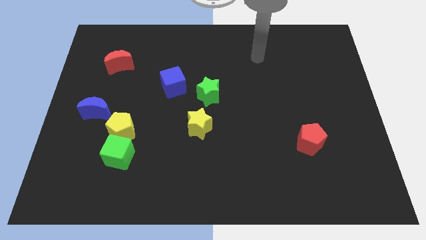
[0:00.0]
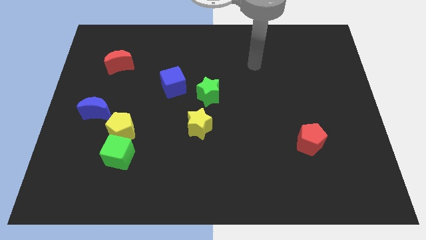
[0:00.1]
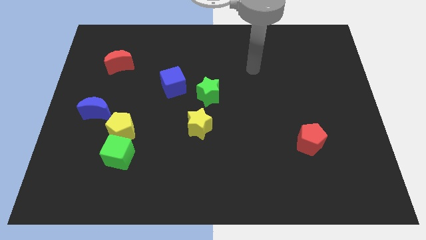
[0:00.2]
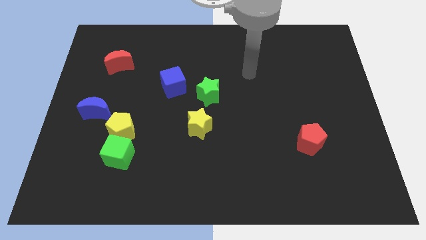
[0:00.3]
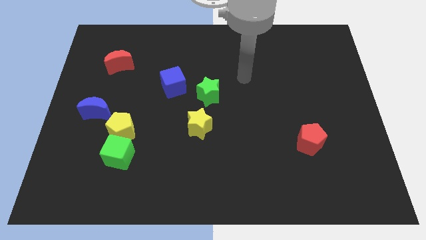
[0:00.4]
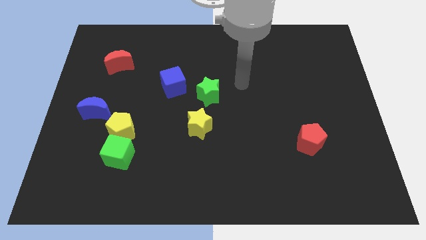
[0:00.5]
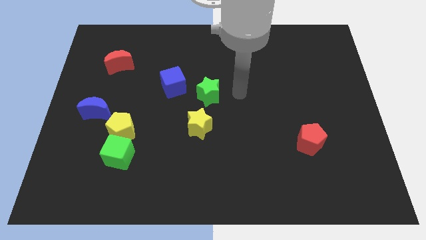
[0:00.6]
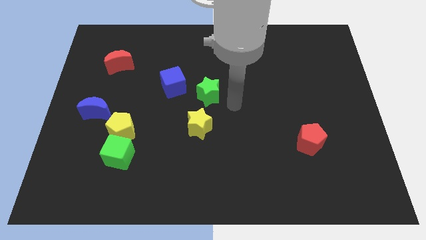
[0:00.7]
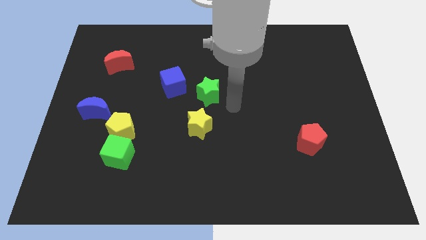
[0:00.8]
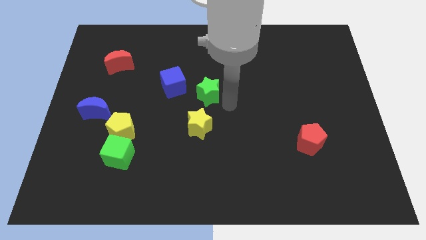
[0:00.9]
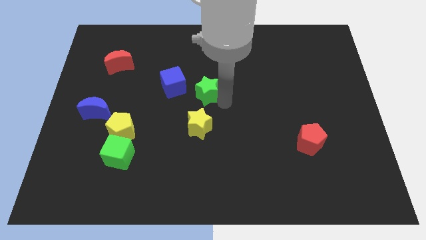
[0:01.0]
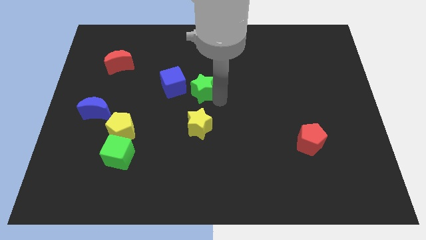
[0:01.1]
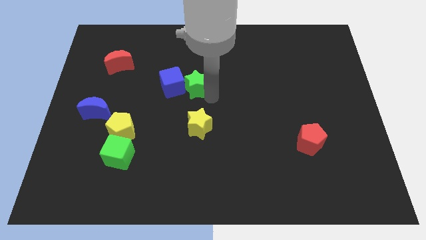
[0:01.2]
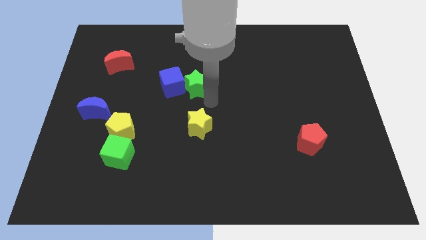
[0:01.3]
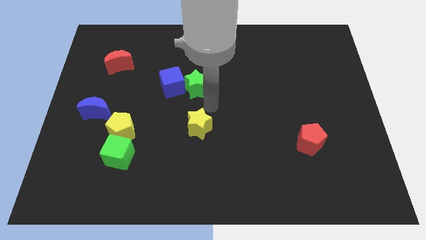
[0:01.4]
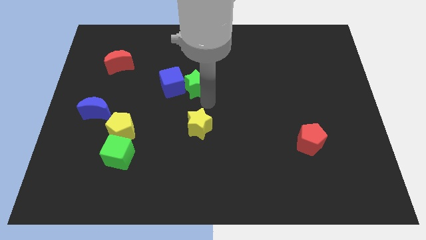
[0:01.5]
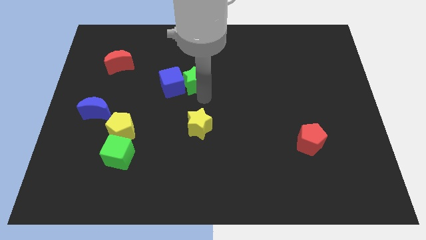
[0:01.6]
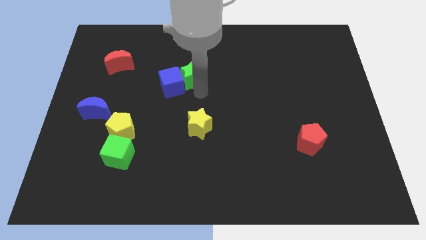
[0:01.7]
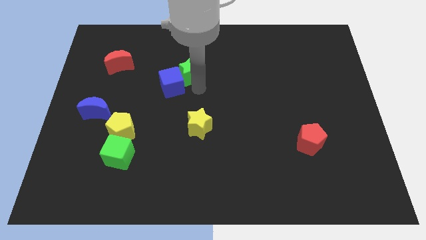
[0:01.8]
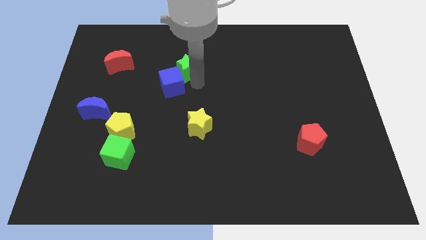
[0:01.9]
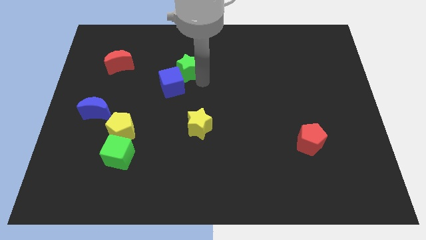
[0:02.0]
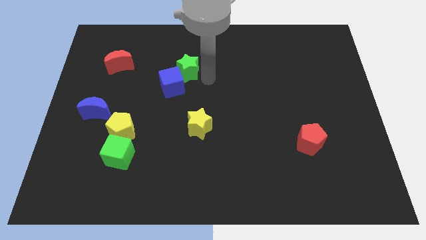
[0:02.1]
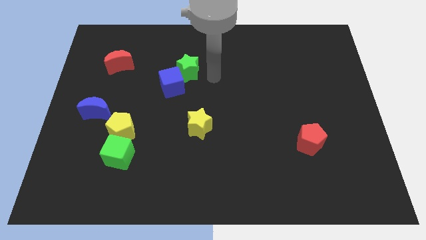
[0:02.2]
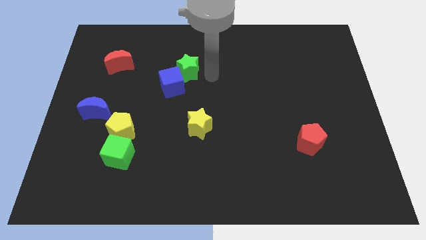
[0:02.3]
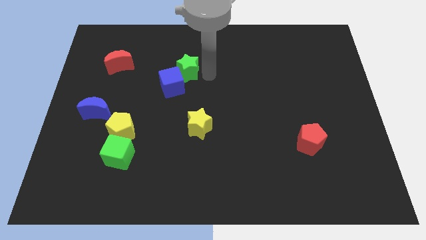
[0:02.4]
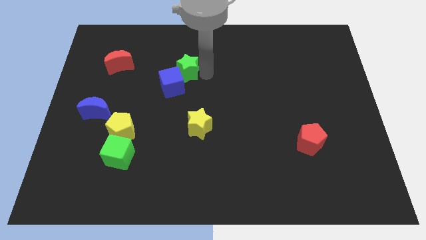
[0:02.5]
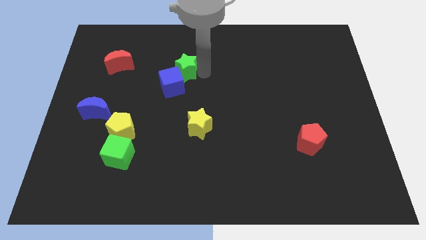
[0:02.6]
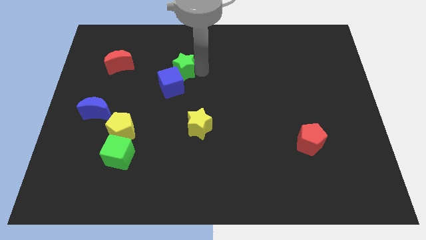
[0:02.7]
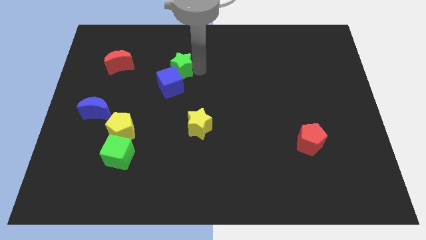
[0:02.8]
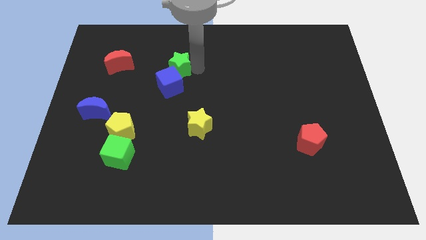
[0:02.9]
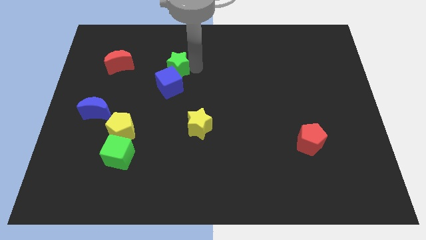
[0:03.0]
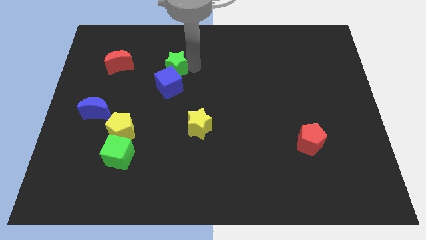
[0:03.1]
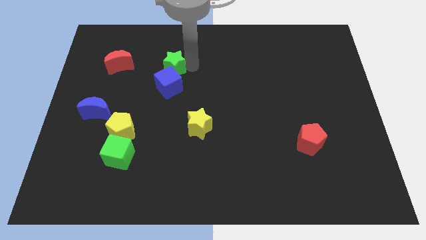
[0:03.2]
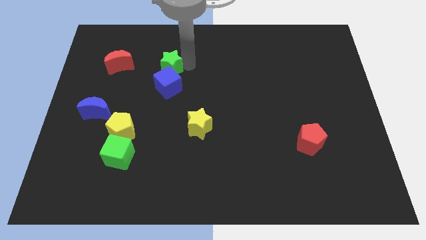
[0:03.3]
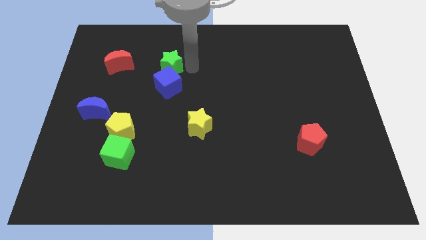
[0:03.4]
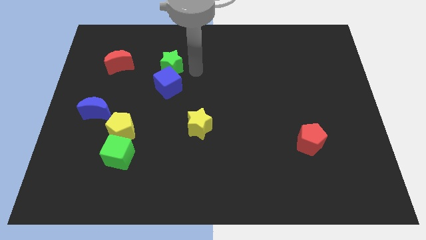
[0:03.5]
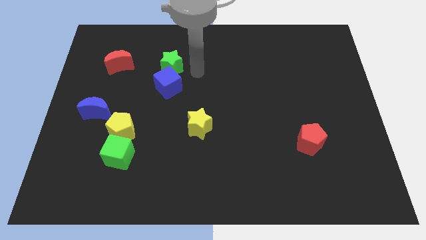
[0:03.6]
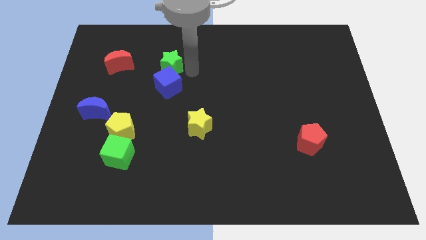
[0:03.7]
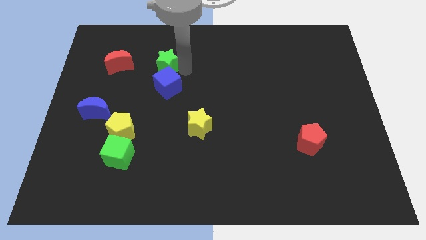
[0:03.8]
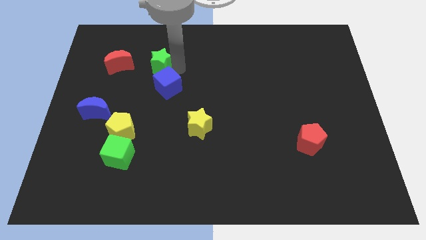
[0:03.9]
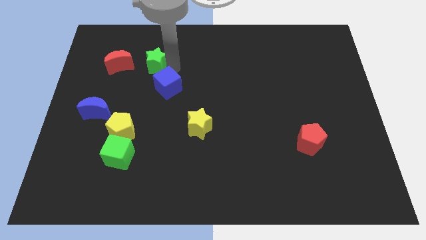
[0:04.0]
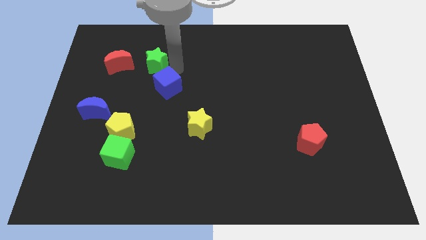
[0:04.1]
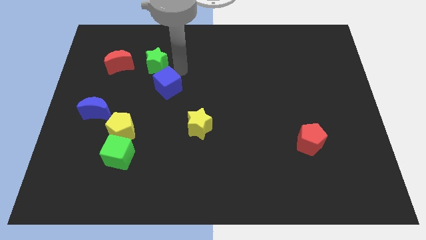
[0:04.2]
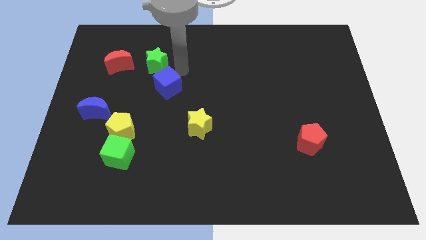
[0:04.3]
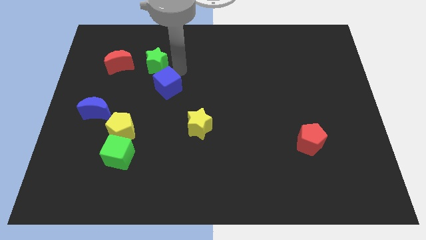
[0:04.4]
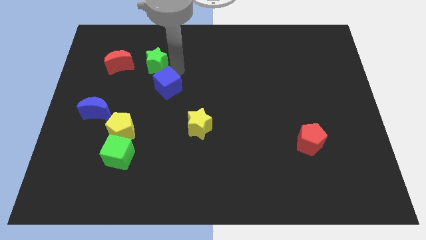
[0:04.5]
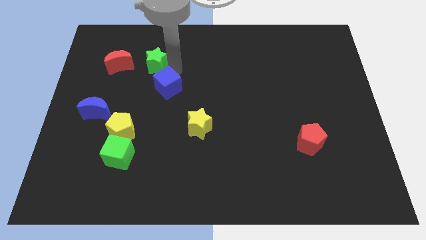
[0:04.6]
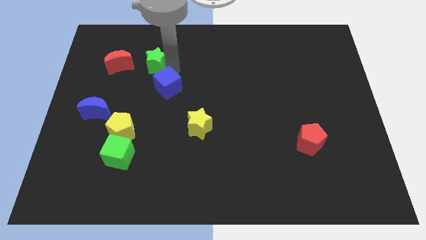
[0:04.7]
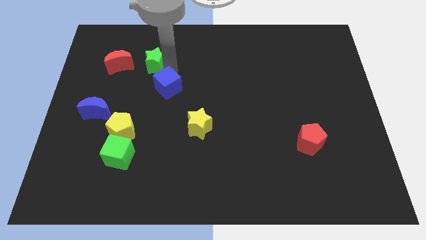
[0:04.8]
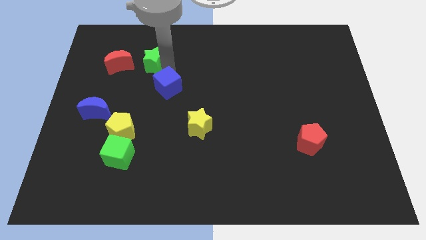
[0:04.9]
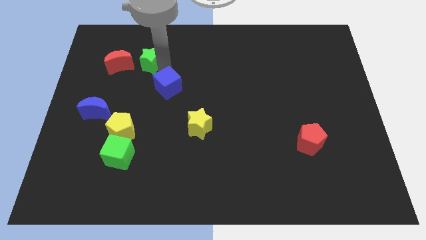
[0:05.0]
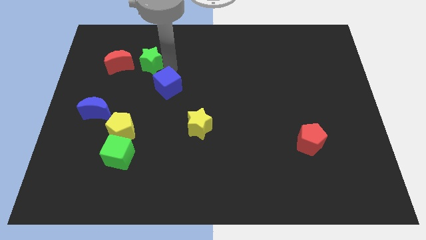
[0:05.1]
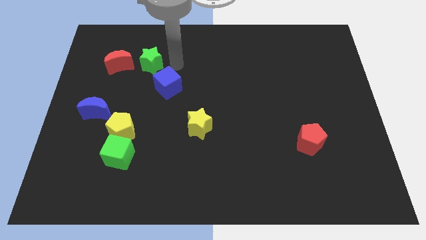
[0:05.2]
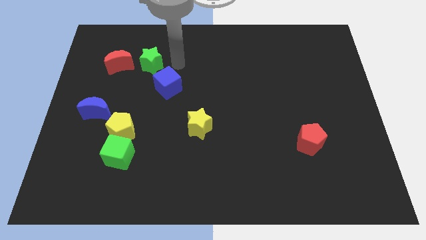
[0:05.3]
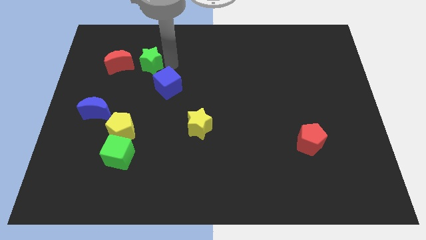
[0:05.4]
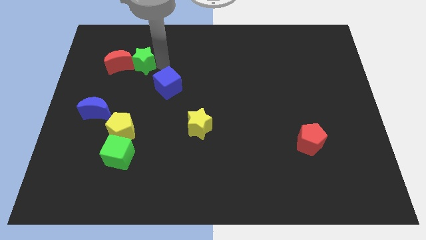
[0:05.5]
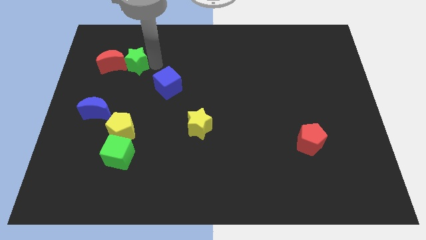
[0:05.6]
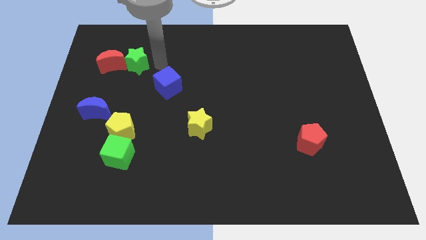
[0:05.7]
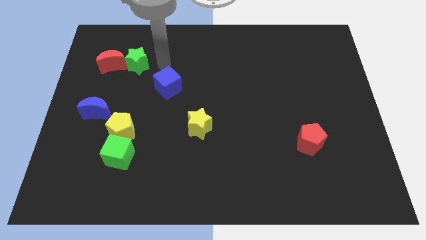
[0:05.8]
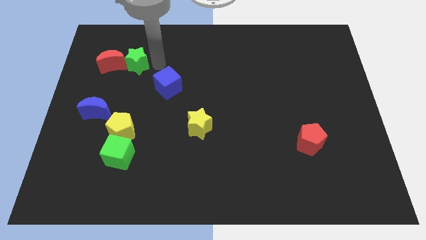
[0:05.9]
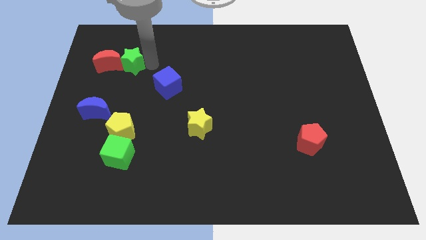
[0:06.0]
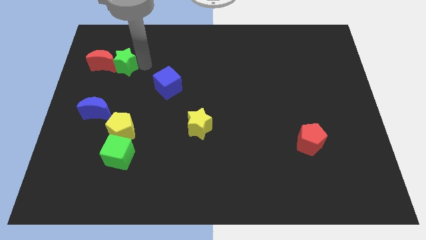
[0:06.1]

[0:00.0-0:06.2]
slide the green star next to the red moon

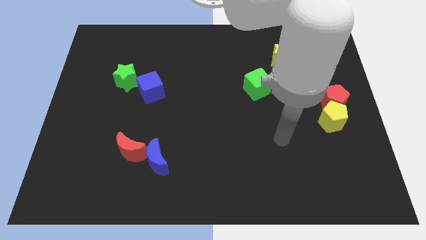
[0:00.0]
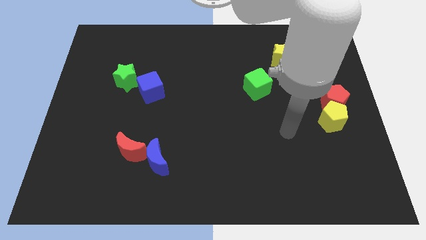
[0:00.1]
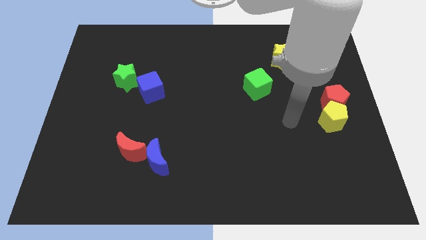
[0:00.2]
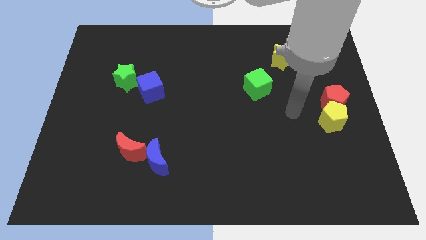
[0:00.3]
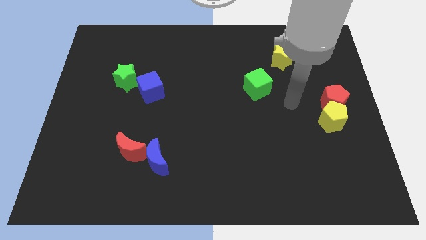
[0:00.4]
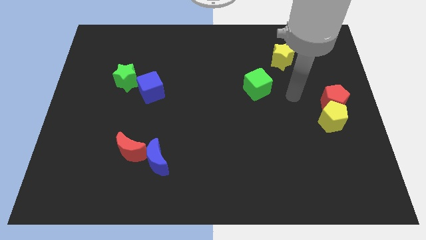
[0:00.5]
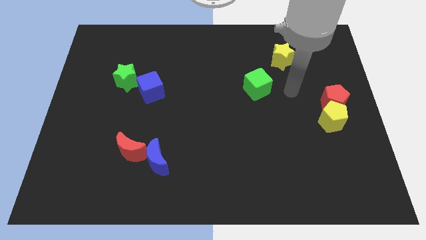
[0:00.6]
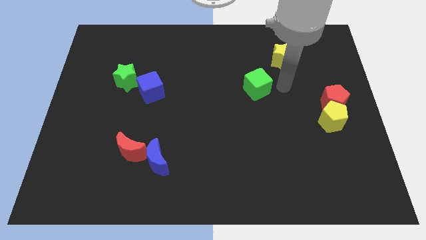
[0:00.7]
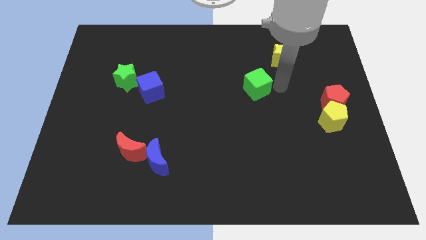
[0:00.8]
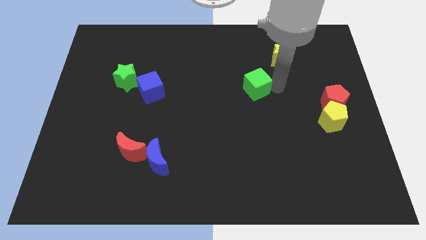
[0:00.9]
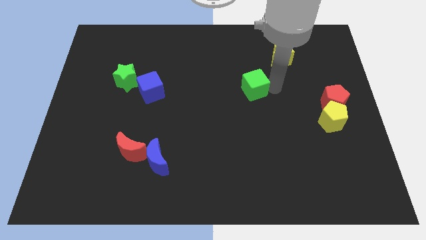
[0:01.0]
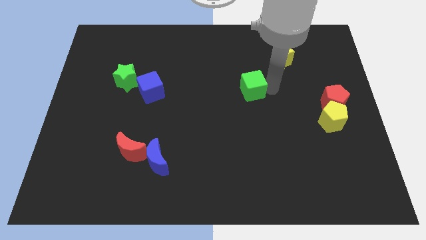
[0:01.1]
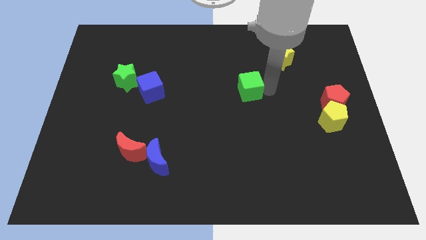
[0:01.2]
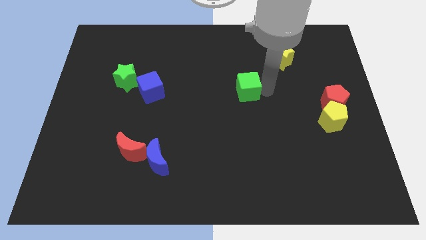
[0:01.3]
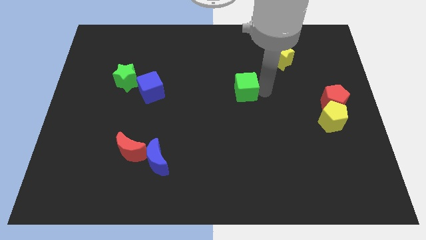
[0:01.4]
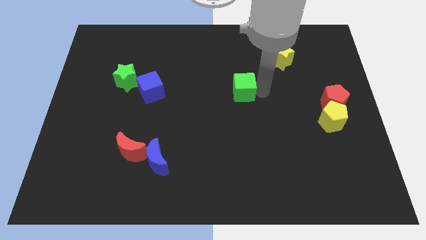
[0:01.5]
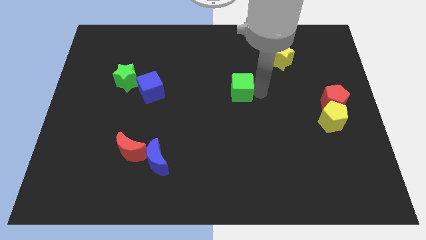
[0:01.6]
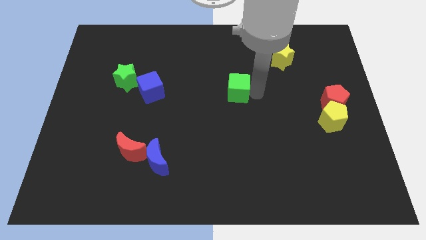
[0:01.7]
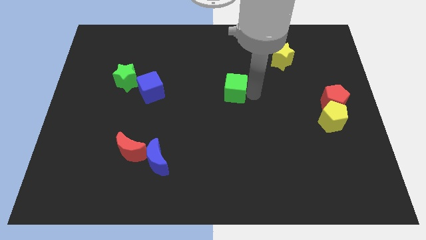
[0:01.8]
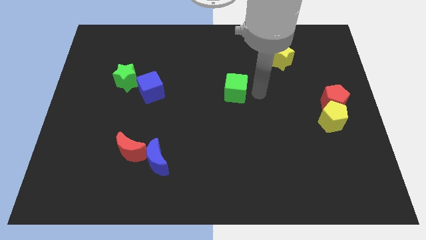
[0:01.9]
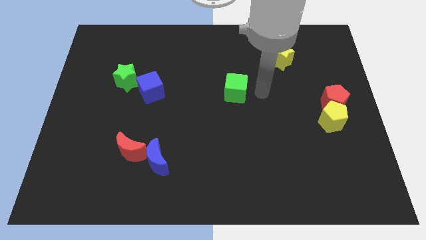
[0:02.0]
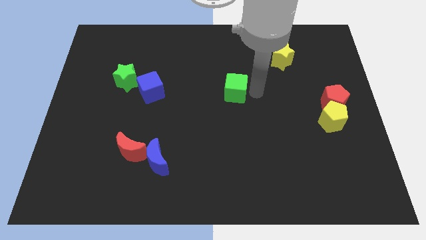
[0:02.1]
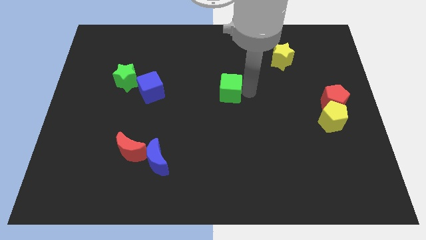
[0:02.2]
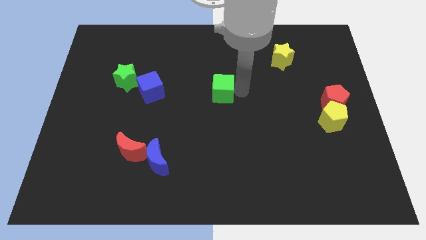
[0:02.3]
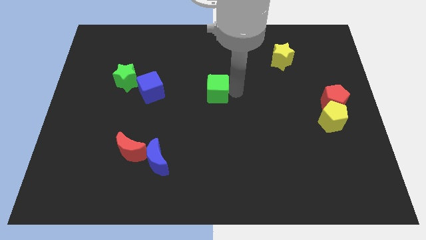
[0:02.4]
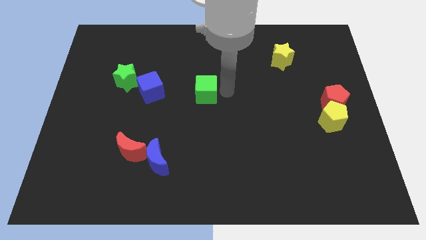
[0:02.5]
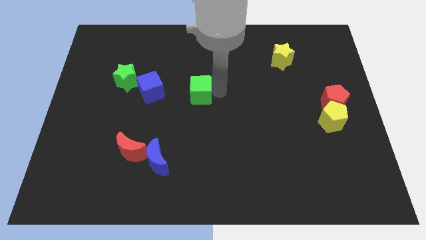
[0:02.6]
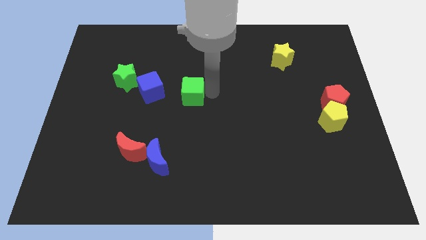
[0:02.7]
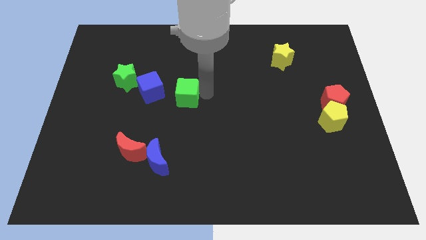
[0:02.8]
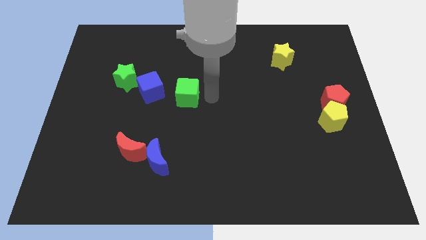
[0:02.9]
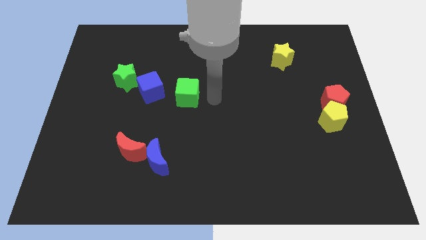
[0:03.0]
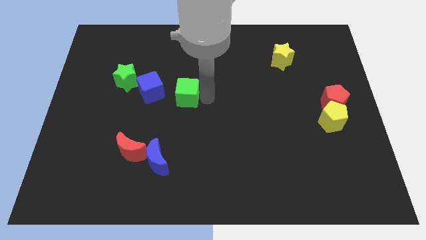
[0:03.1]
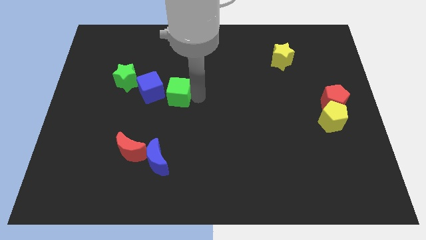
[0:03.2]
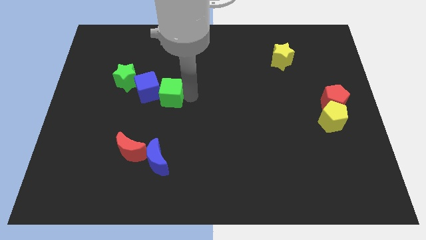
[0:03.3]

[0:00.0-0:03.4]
move the green cube next to the blue cube
